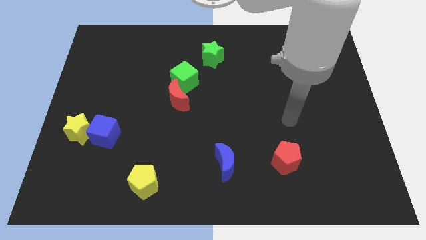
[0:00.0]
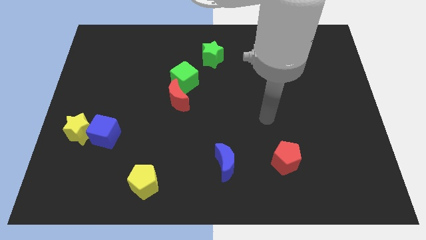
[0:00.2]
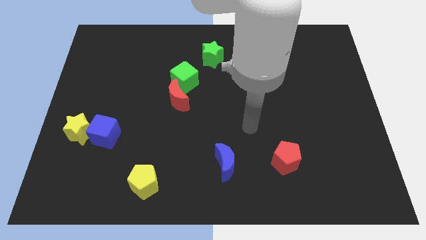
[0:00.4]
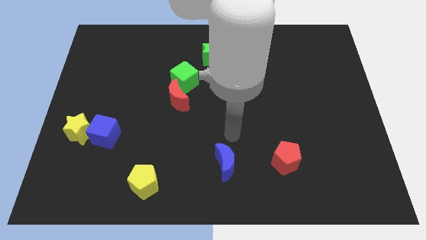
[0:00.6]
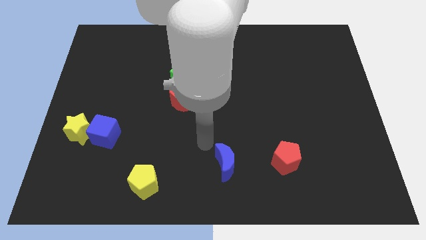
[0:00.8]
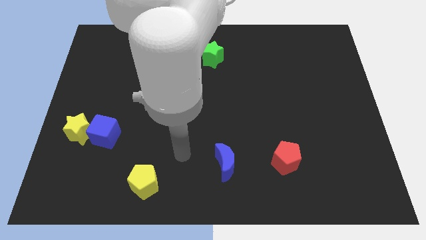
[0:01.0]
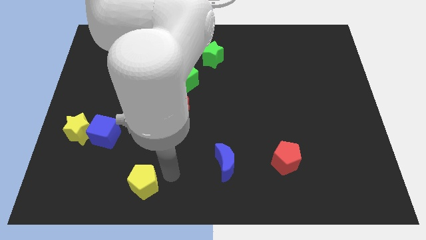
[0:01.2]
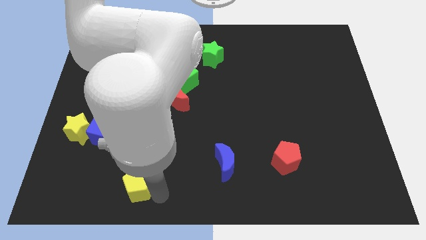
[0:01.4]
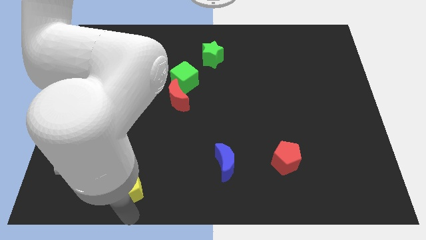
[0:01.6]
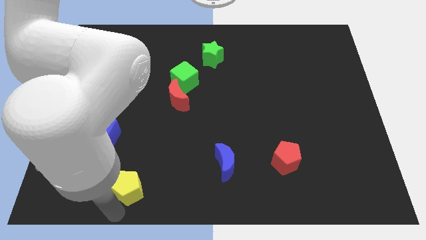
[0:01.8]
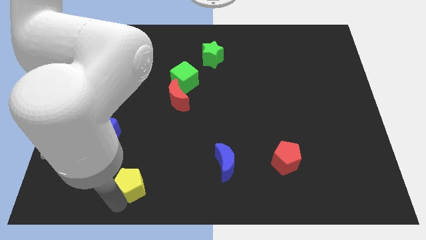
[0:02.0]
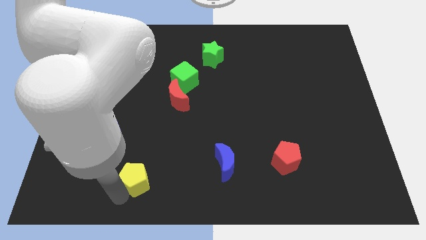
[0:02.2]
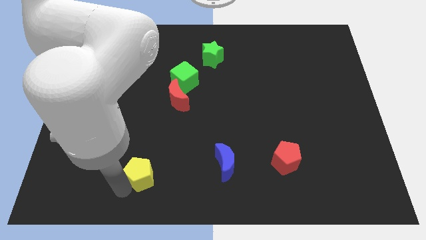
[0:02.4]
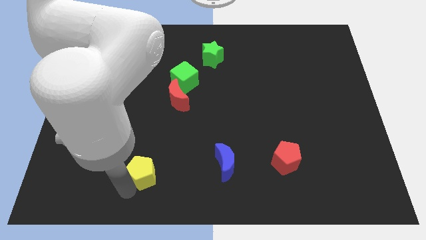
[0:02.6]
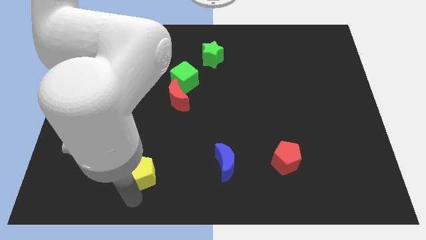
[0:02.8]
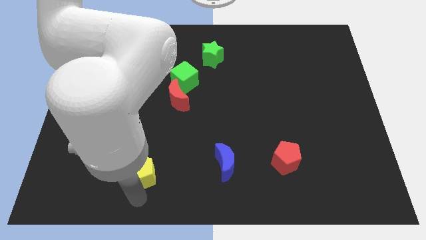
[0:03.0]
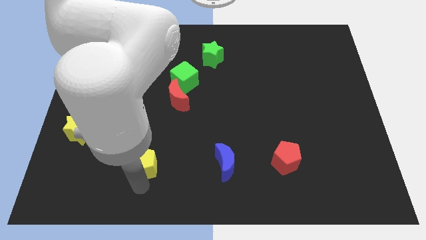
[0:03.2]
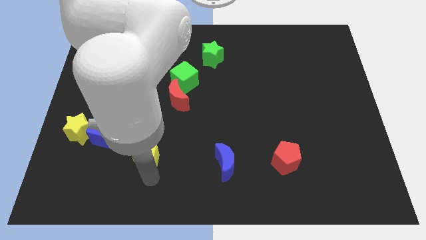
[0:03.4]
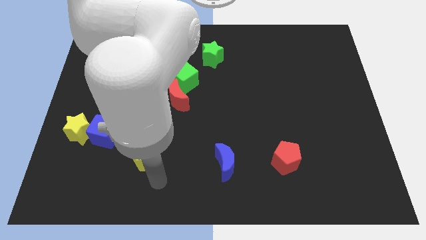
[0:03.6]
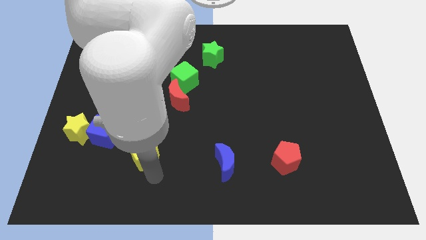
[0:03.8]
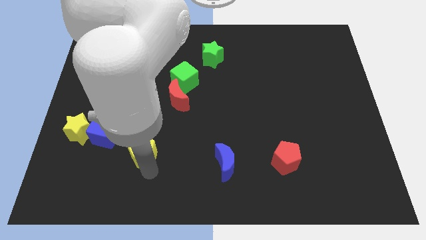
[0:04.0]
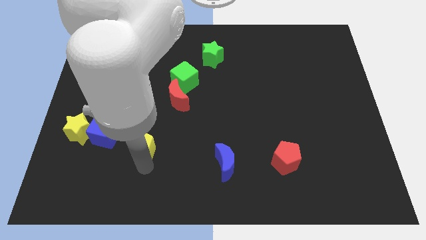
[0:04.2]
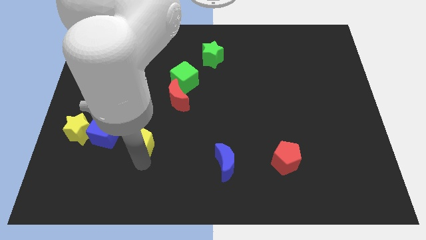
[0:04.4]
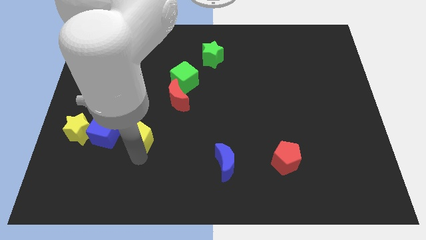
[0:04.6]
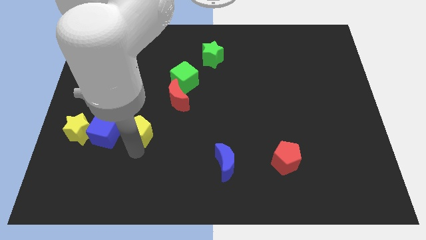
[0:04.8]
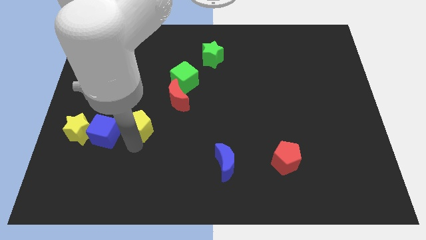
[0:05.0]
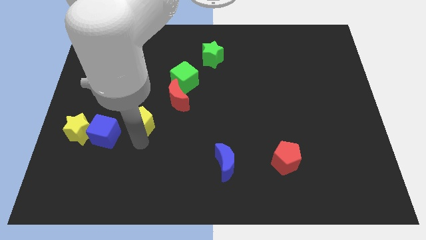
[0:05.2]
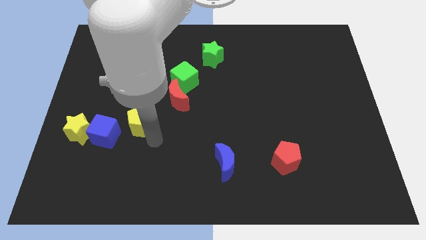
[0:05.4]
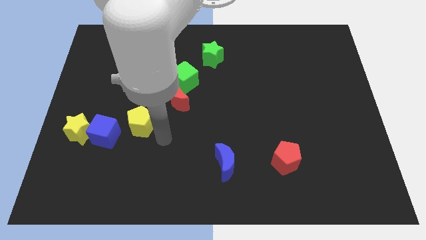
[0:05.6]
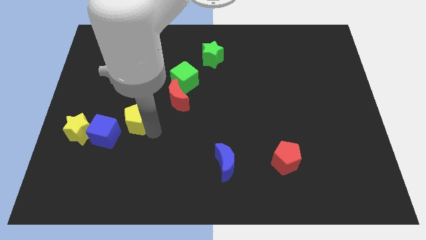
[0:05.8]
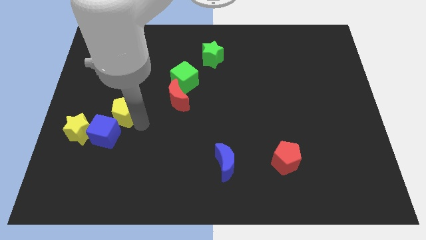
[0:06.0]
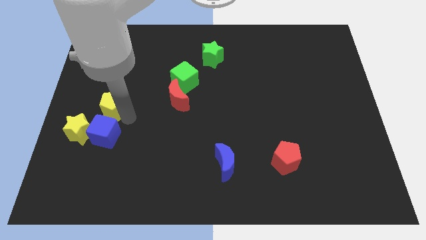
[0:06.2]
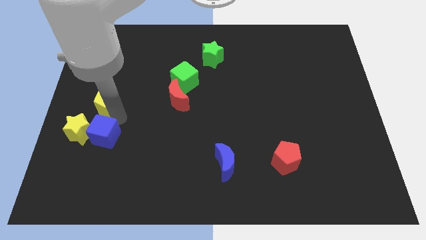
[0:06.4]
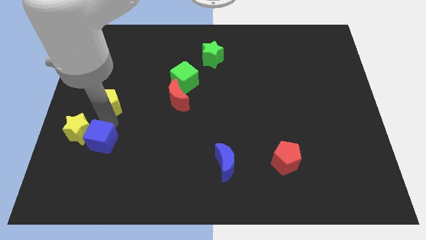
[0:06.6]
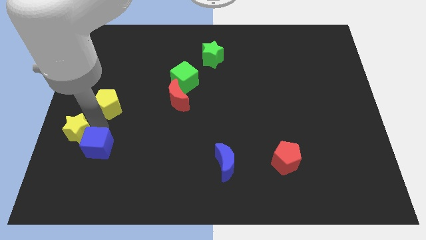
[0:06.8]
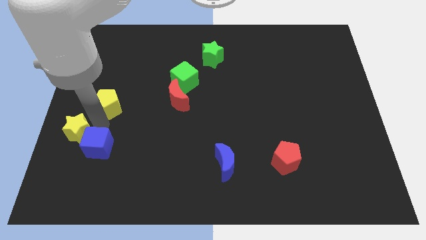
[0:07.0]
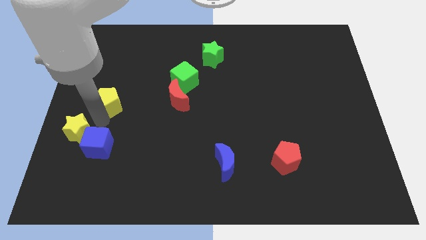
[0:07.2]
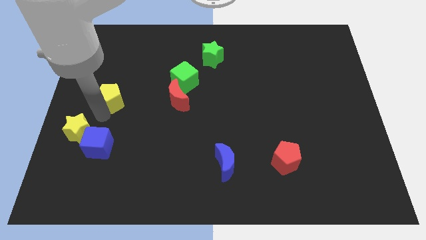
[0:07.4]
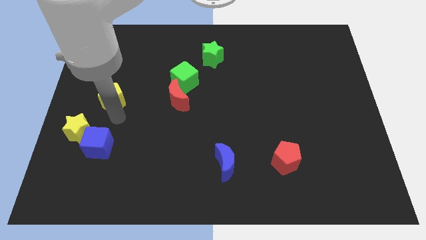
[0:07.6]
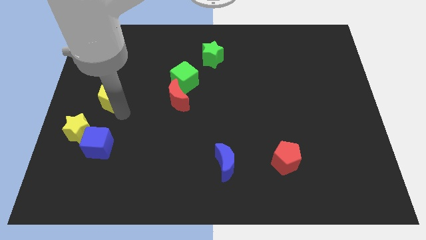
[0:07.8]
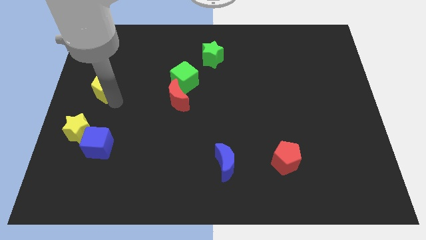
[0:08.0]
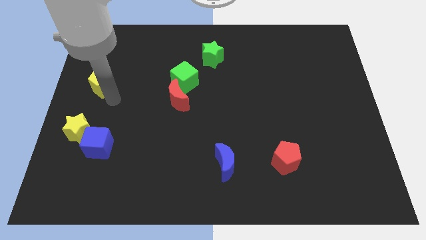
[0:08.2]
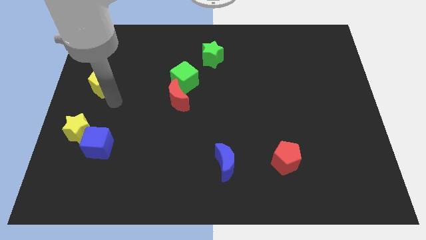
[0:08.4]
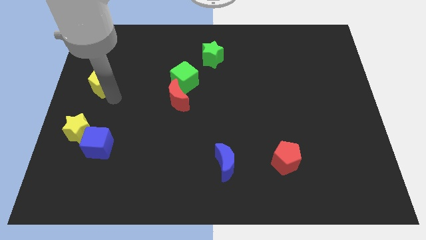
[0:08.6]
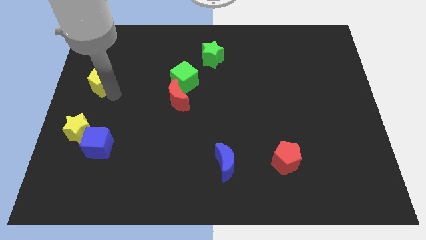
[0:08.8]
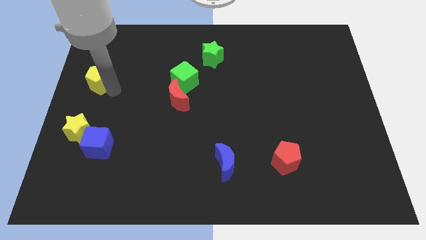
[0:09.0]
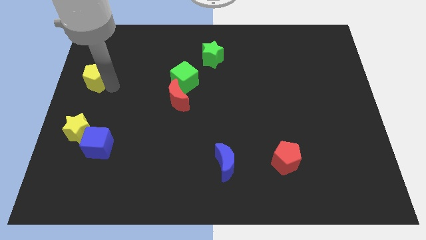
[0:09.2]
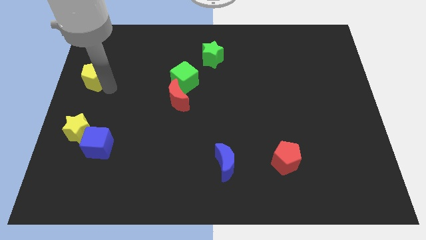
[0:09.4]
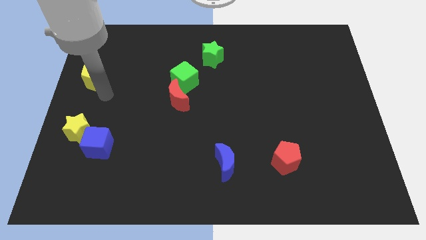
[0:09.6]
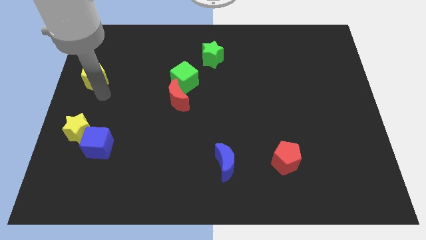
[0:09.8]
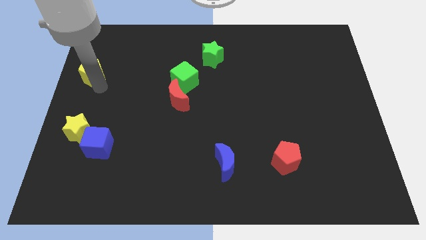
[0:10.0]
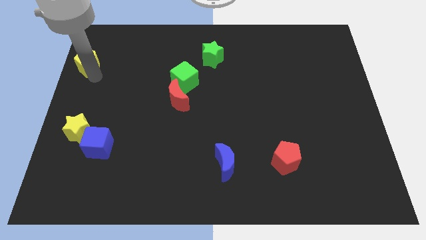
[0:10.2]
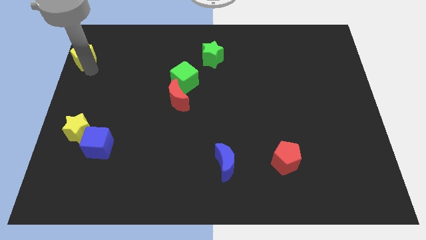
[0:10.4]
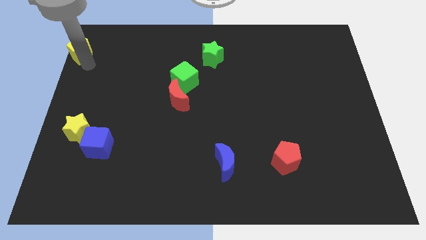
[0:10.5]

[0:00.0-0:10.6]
put the yellow pentagon to the top left corner

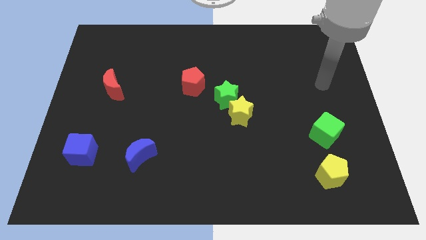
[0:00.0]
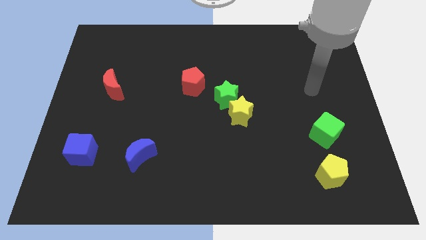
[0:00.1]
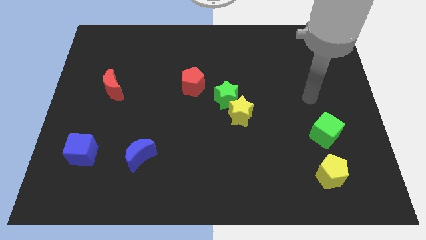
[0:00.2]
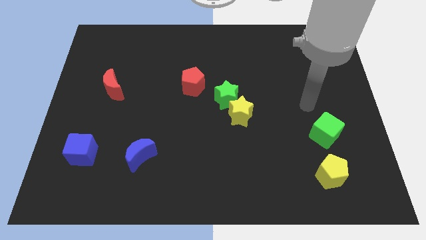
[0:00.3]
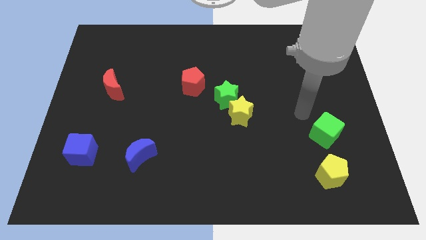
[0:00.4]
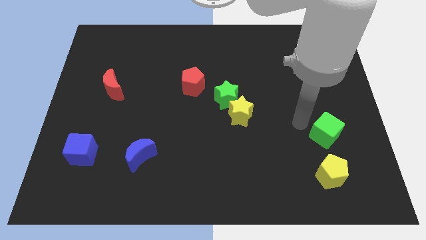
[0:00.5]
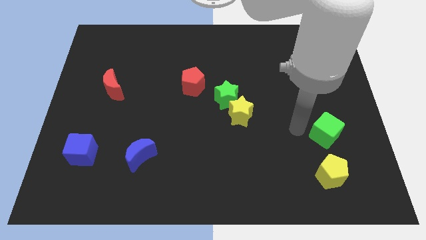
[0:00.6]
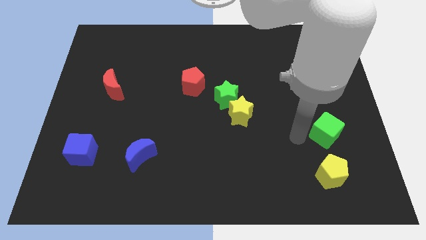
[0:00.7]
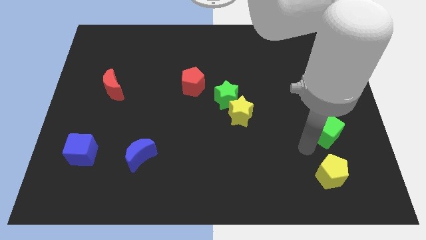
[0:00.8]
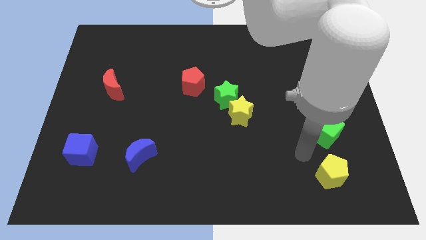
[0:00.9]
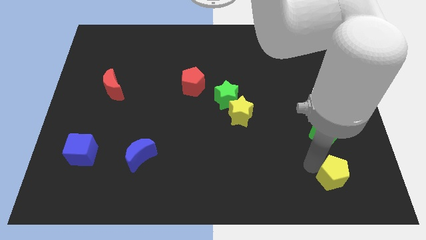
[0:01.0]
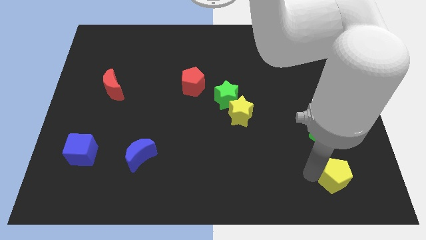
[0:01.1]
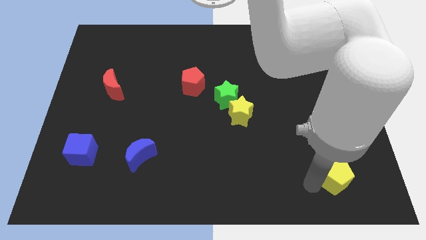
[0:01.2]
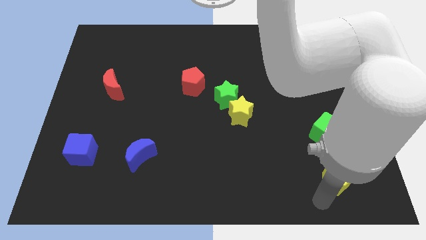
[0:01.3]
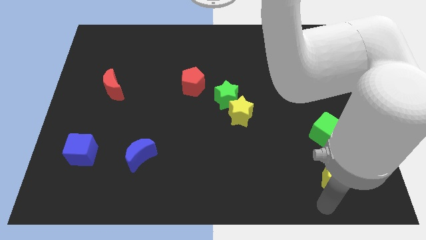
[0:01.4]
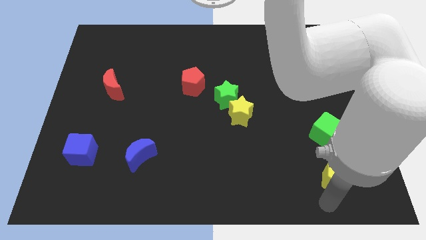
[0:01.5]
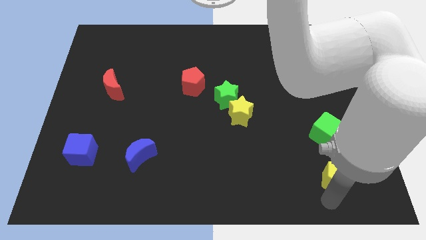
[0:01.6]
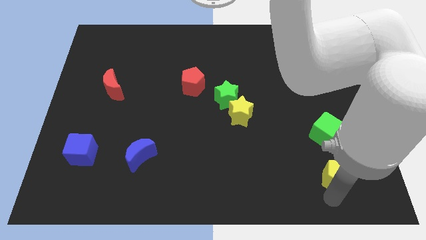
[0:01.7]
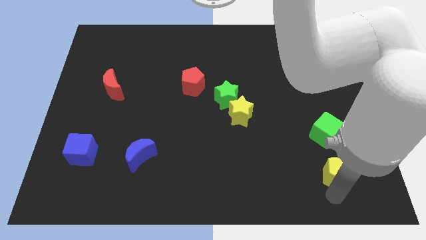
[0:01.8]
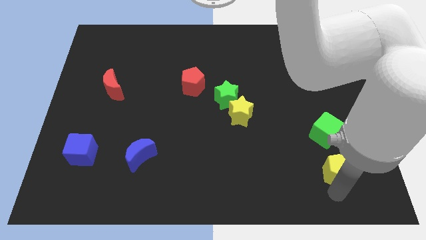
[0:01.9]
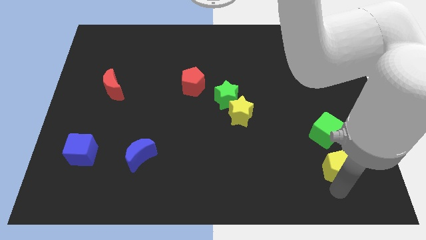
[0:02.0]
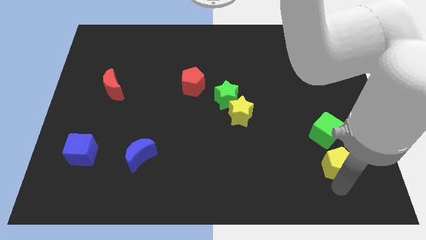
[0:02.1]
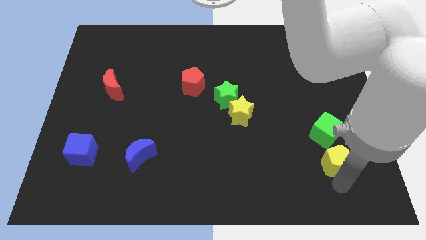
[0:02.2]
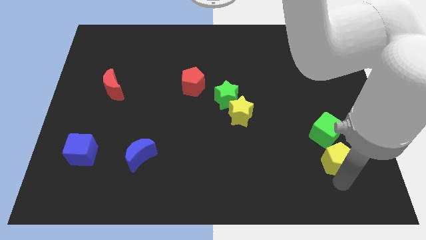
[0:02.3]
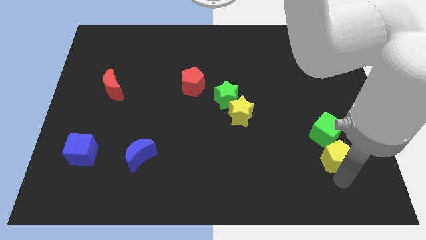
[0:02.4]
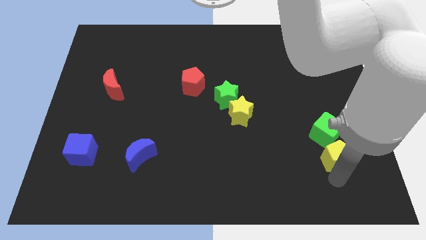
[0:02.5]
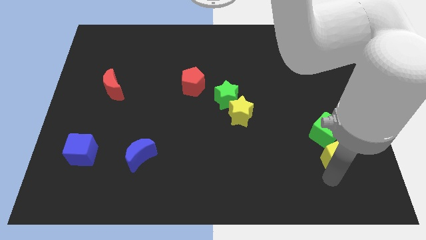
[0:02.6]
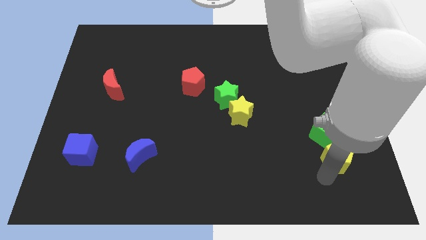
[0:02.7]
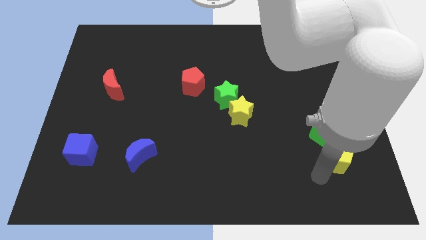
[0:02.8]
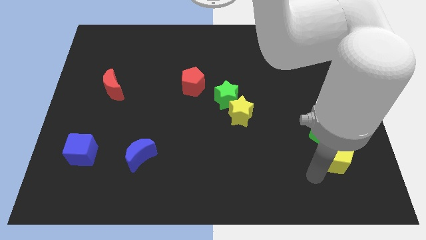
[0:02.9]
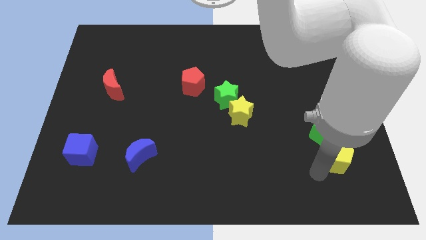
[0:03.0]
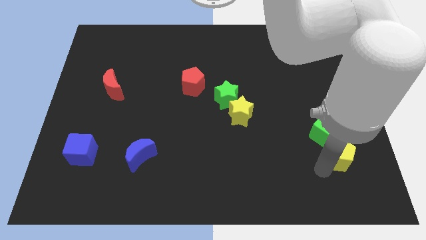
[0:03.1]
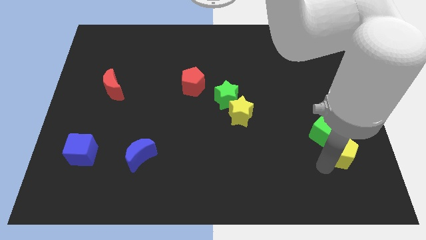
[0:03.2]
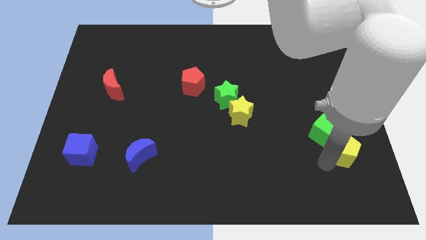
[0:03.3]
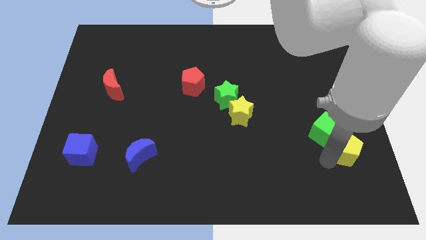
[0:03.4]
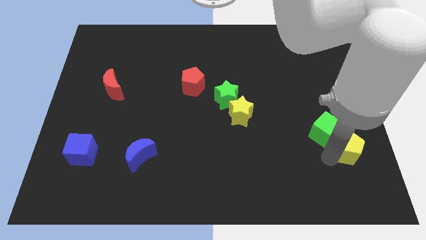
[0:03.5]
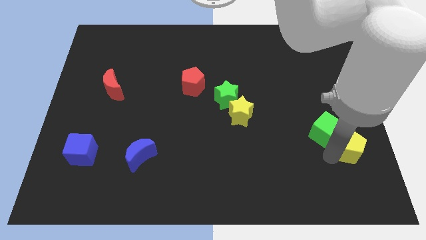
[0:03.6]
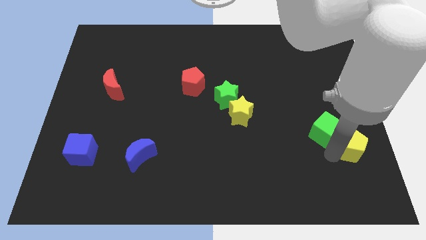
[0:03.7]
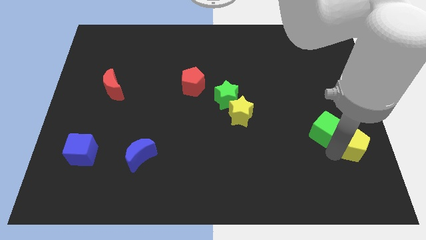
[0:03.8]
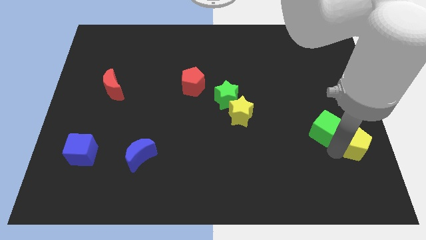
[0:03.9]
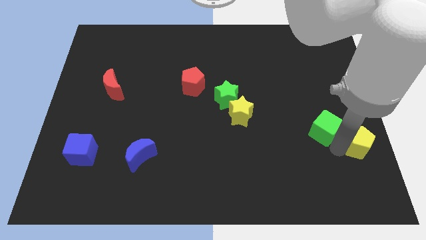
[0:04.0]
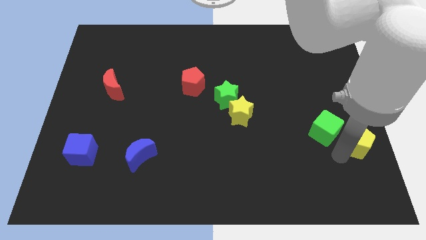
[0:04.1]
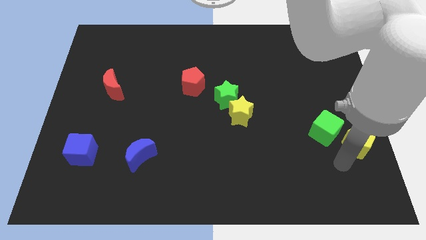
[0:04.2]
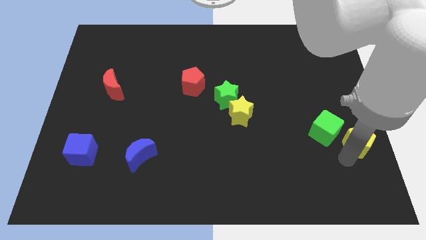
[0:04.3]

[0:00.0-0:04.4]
slide the yellow pentagon to the right side of the board
